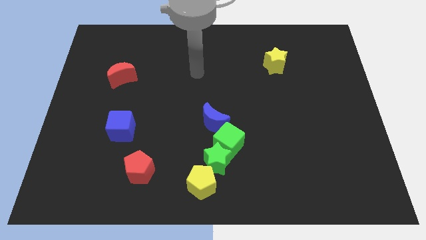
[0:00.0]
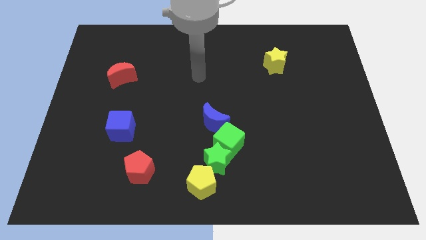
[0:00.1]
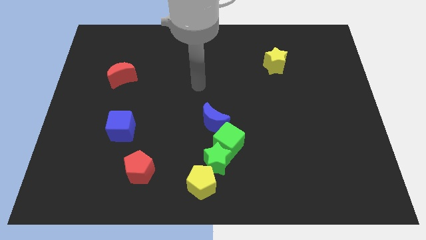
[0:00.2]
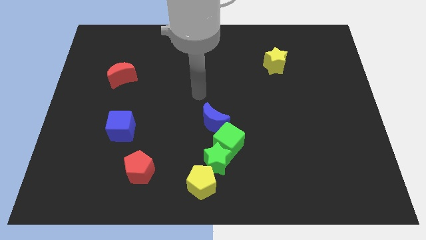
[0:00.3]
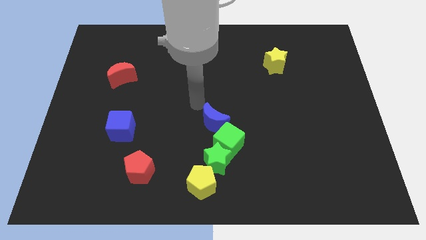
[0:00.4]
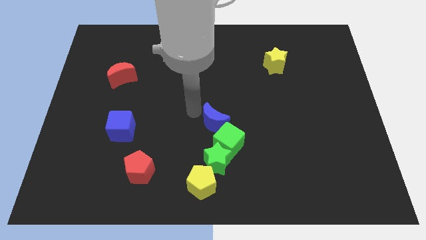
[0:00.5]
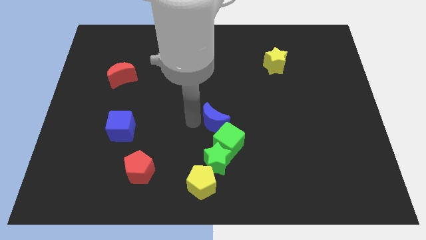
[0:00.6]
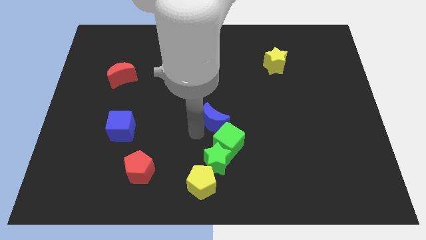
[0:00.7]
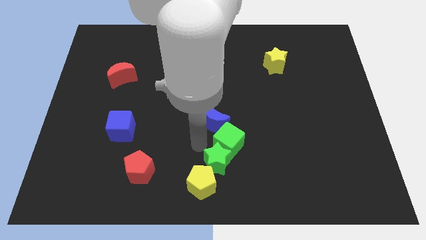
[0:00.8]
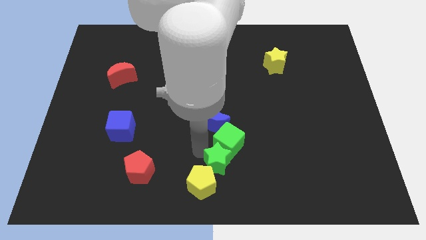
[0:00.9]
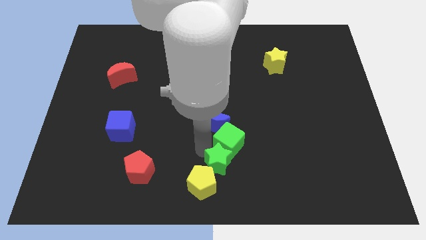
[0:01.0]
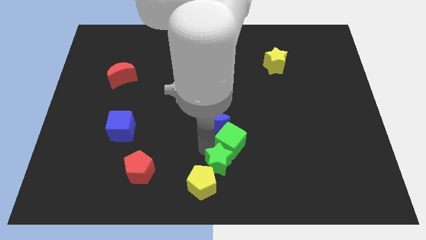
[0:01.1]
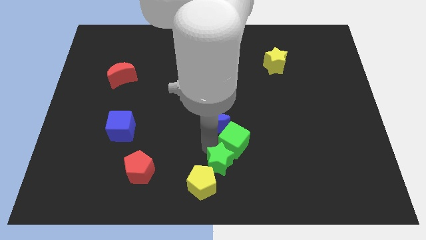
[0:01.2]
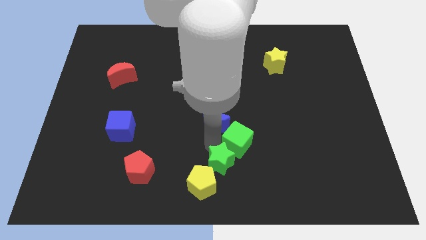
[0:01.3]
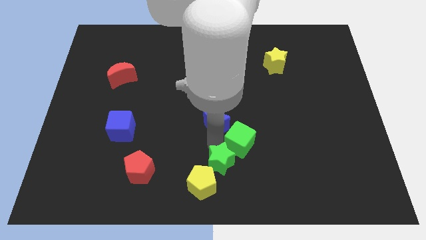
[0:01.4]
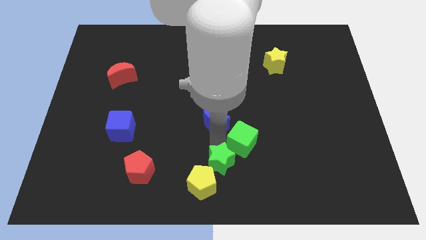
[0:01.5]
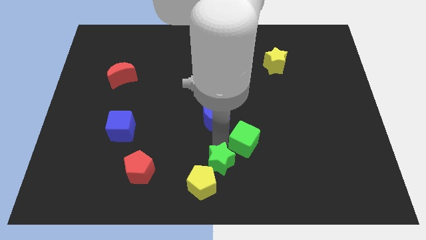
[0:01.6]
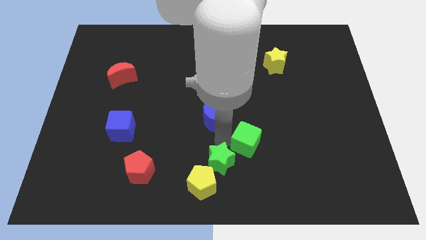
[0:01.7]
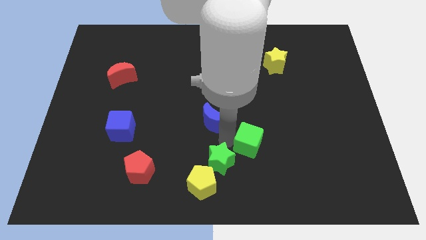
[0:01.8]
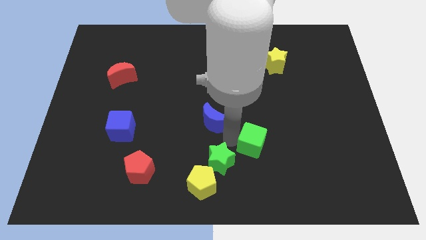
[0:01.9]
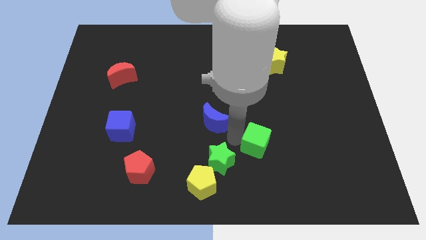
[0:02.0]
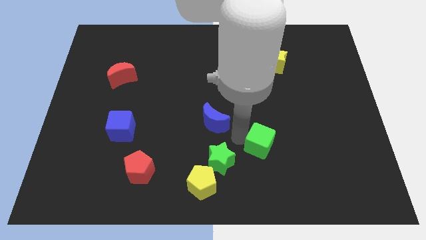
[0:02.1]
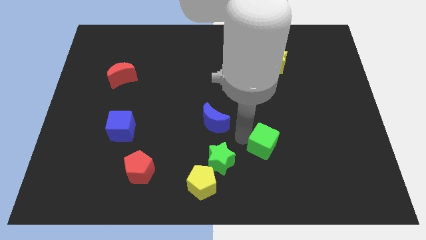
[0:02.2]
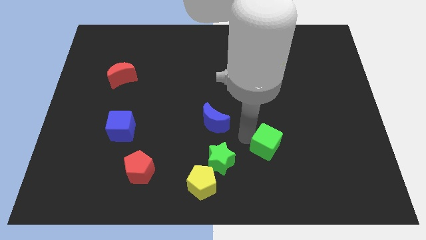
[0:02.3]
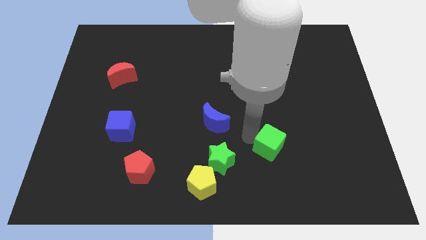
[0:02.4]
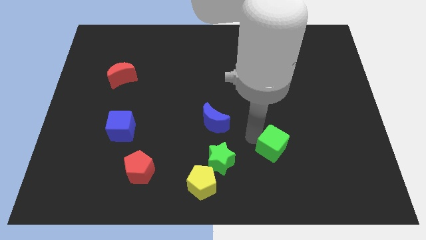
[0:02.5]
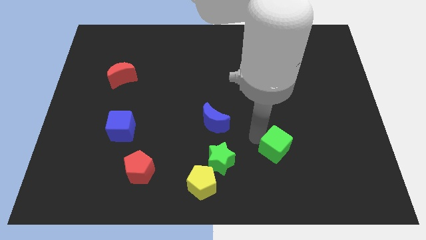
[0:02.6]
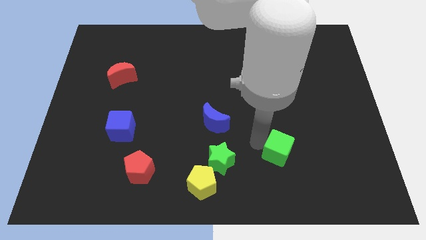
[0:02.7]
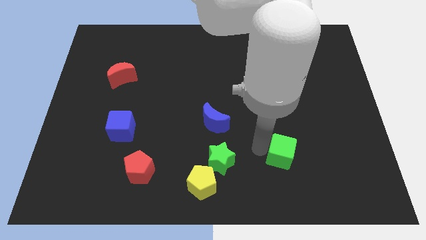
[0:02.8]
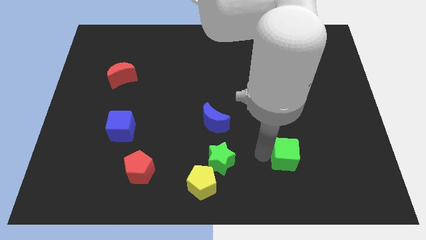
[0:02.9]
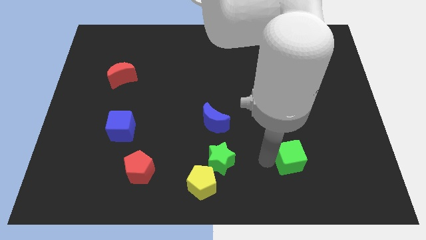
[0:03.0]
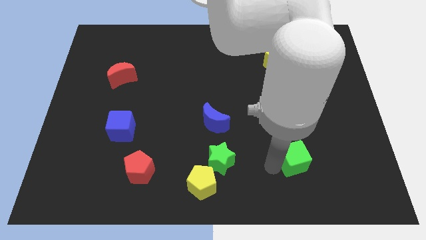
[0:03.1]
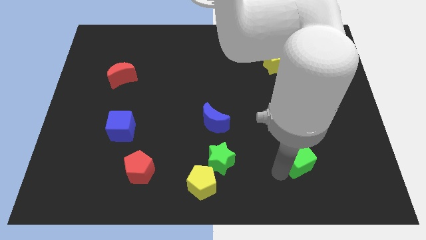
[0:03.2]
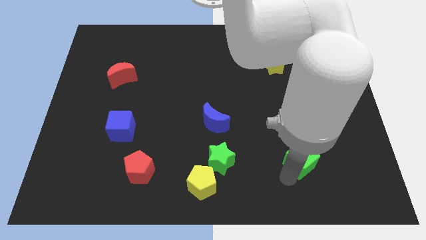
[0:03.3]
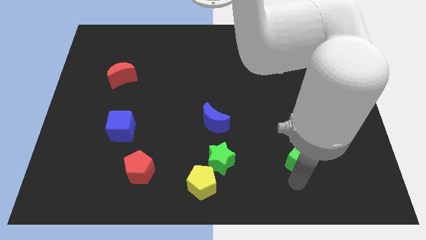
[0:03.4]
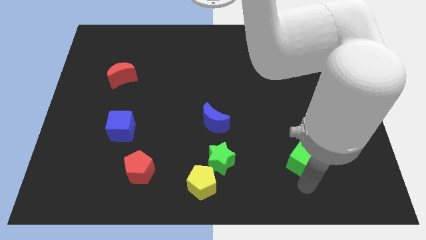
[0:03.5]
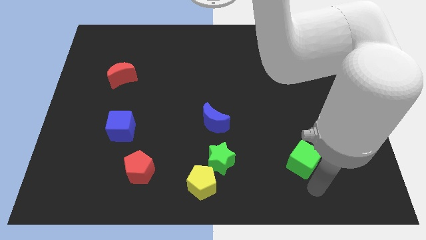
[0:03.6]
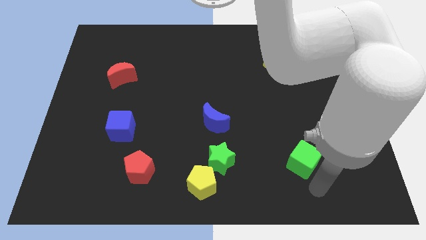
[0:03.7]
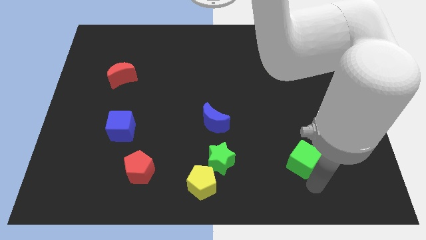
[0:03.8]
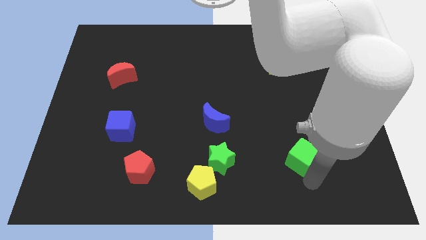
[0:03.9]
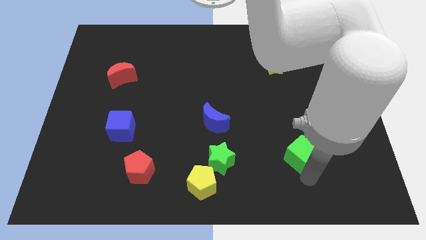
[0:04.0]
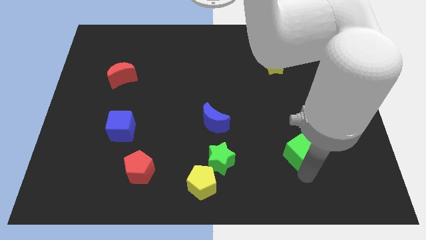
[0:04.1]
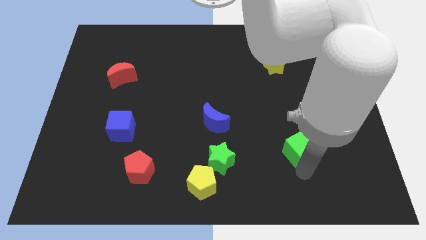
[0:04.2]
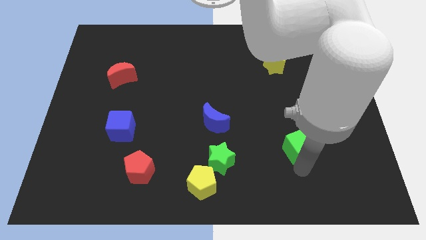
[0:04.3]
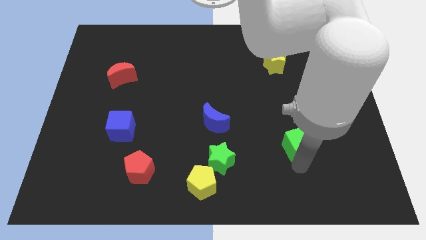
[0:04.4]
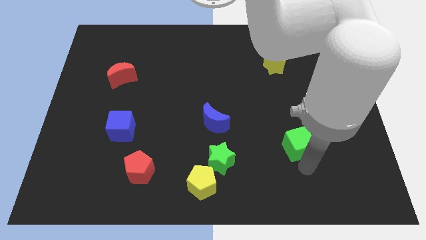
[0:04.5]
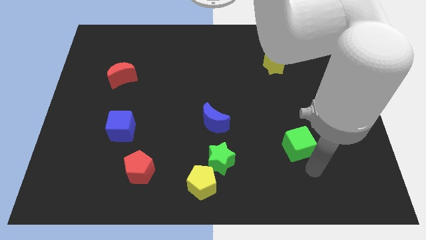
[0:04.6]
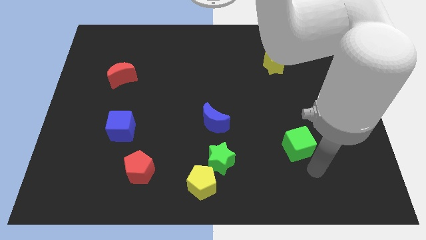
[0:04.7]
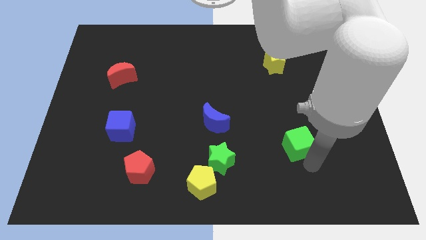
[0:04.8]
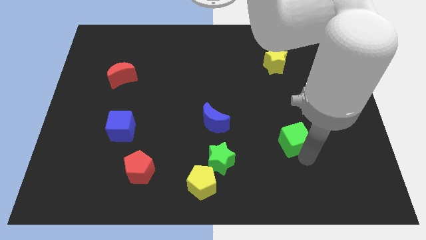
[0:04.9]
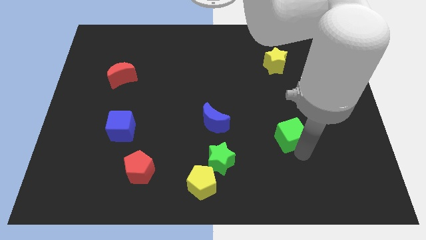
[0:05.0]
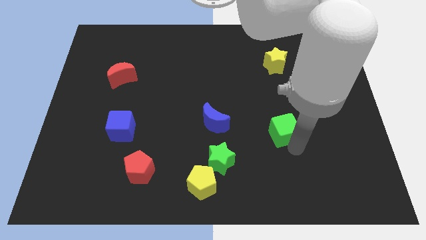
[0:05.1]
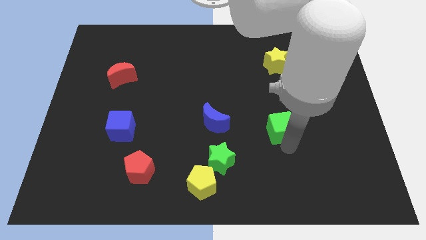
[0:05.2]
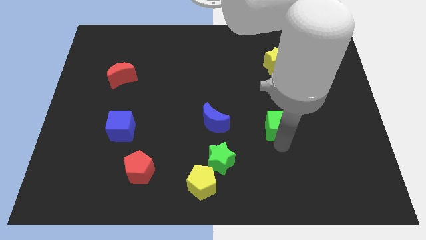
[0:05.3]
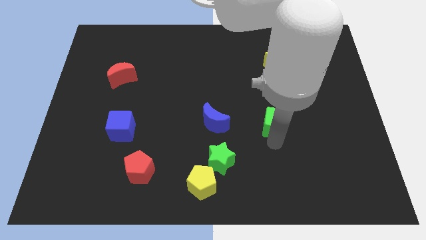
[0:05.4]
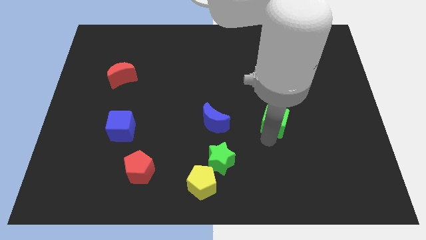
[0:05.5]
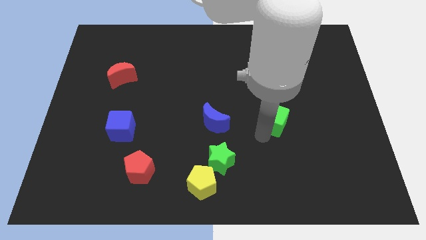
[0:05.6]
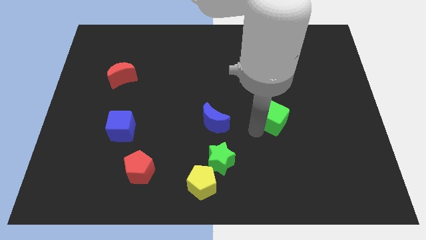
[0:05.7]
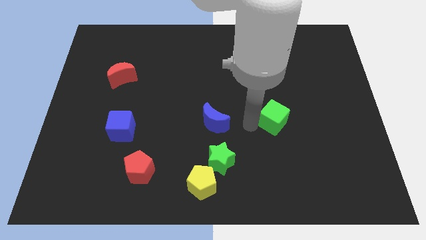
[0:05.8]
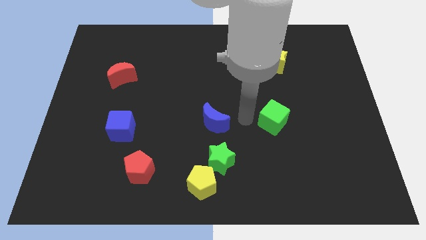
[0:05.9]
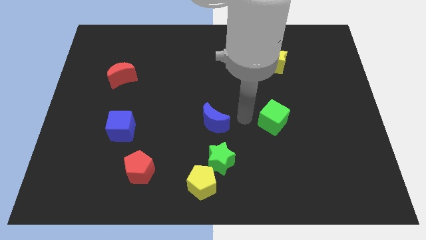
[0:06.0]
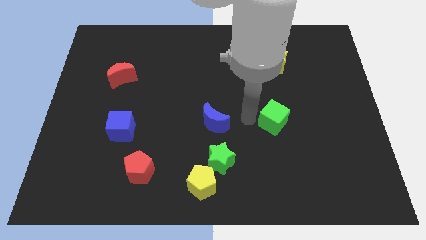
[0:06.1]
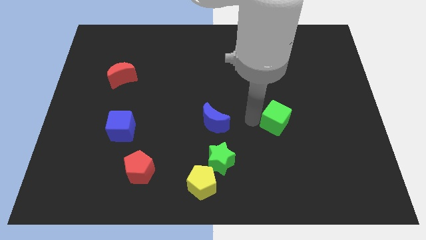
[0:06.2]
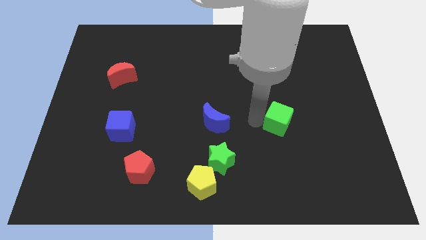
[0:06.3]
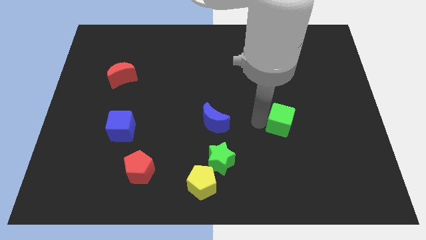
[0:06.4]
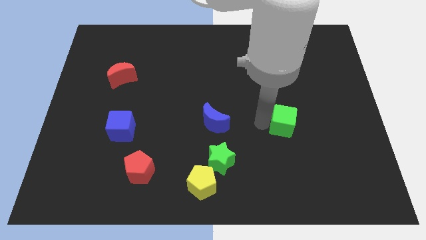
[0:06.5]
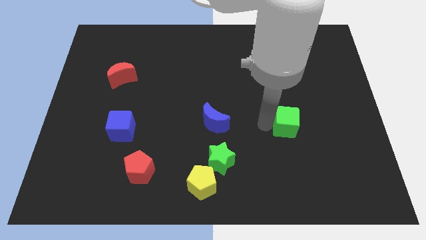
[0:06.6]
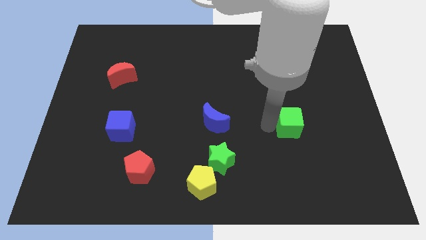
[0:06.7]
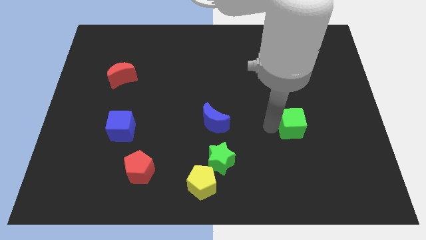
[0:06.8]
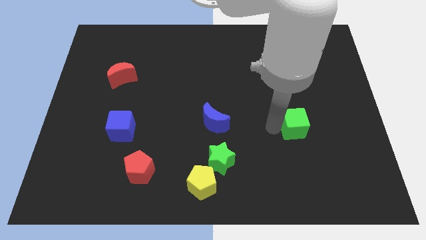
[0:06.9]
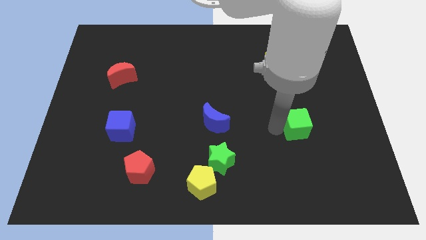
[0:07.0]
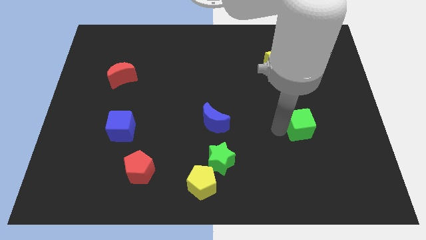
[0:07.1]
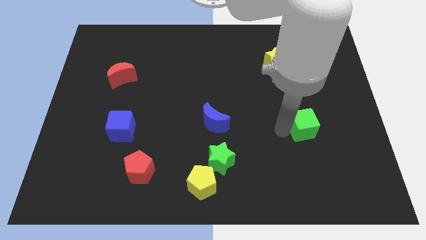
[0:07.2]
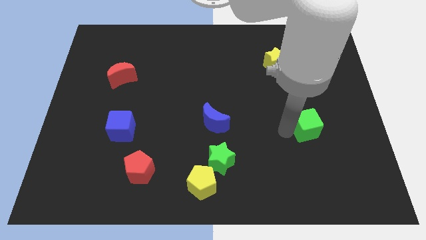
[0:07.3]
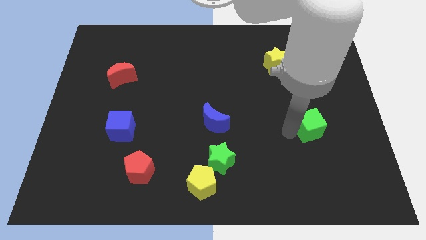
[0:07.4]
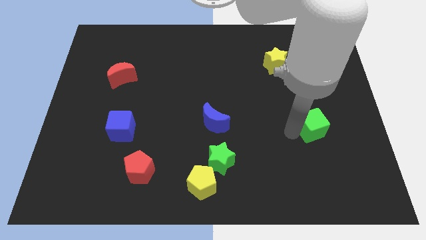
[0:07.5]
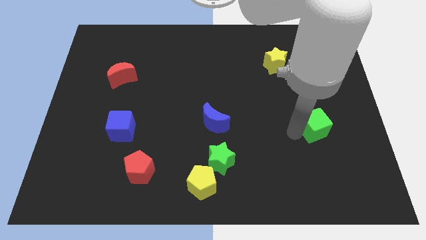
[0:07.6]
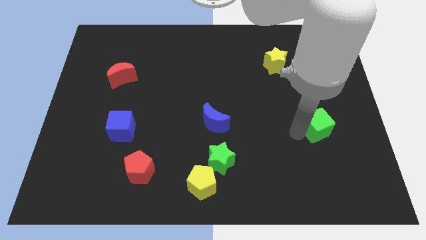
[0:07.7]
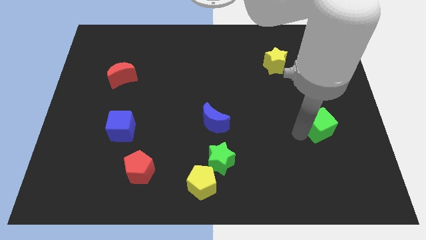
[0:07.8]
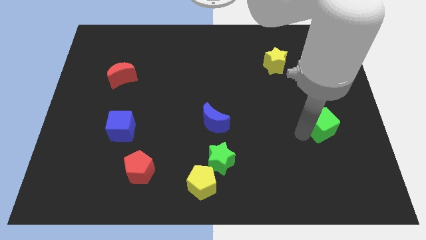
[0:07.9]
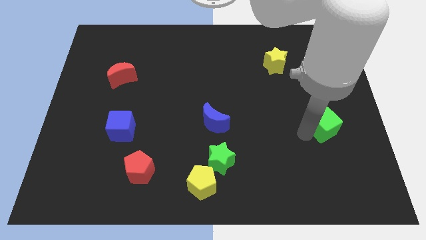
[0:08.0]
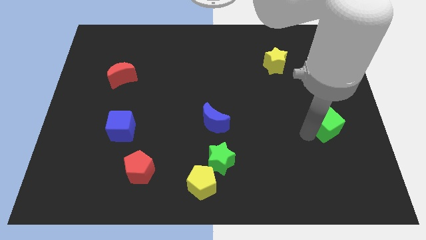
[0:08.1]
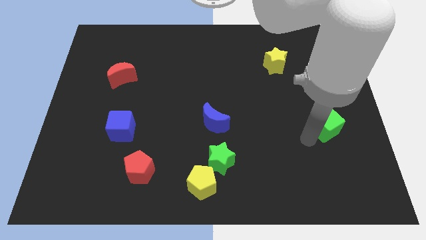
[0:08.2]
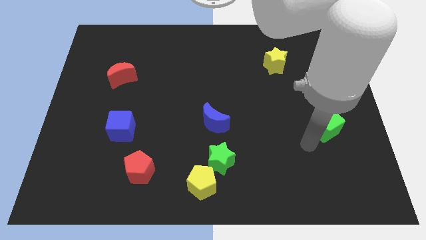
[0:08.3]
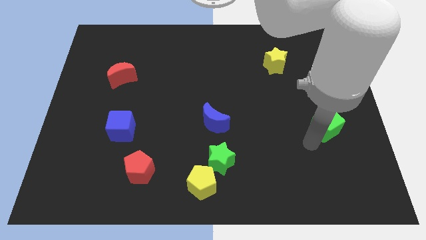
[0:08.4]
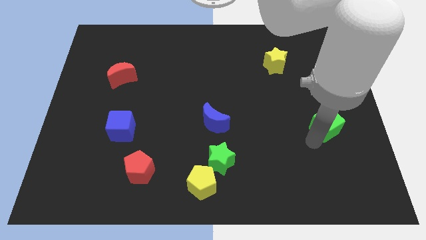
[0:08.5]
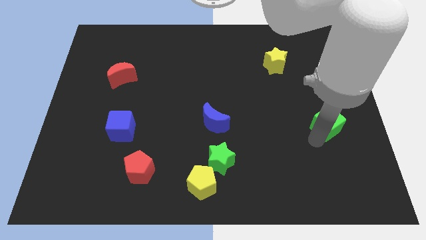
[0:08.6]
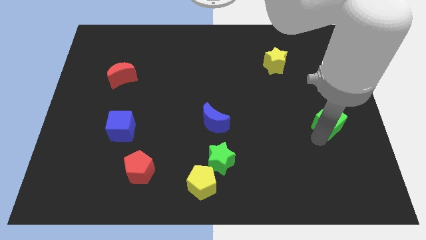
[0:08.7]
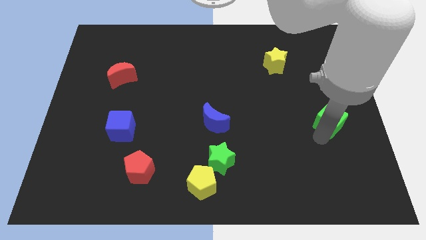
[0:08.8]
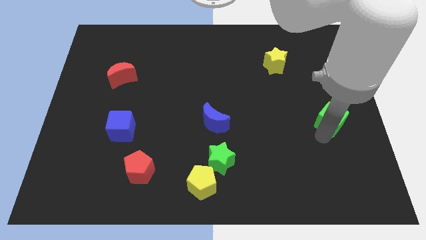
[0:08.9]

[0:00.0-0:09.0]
push the green cube to the center right
